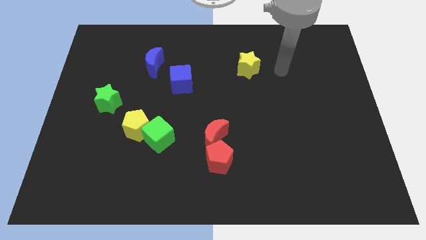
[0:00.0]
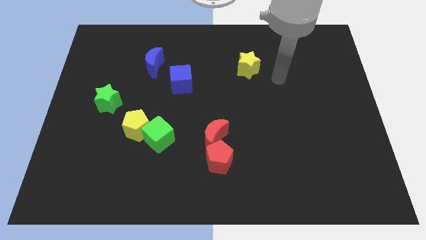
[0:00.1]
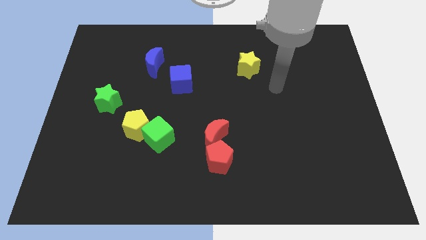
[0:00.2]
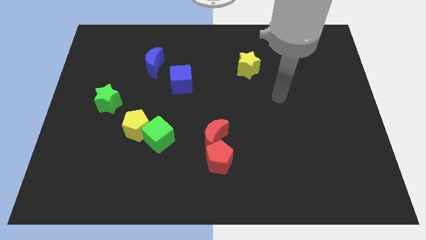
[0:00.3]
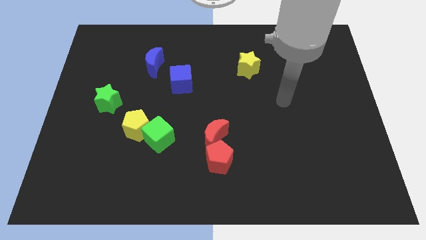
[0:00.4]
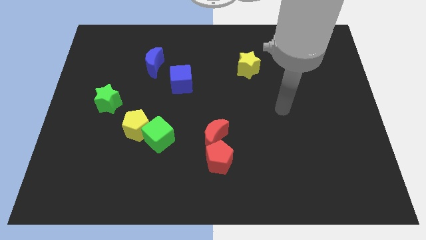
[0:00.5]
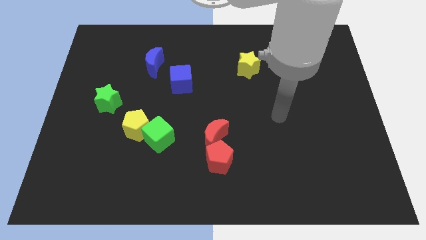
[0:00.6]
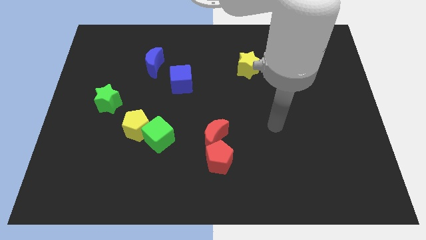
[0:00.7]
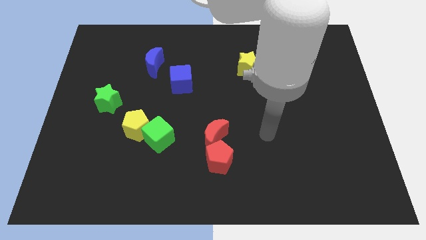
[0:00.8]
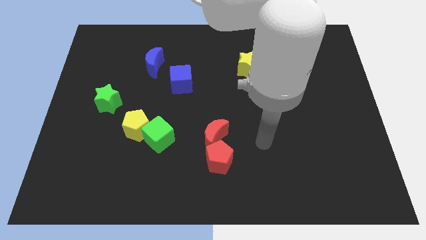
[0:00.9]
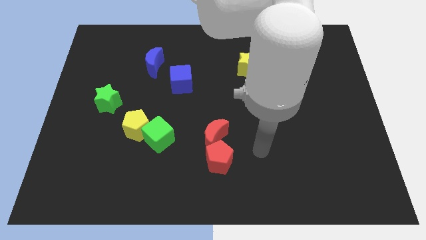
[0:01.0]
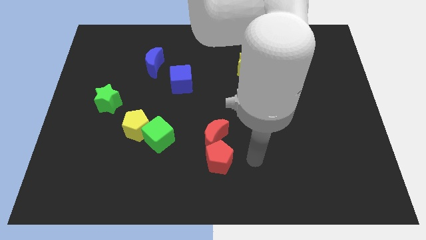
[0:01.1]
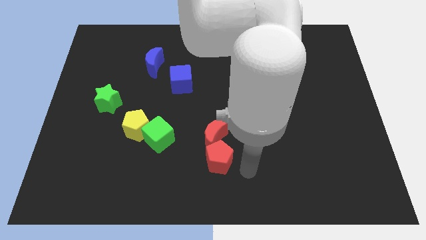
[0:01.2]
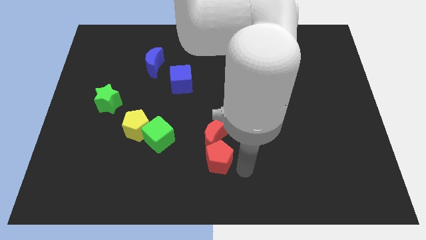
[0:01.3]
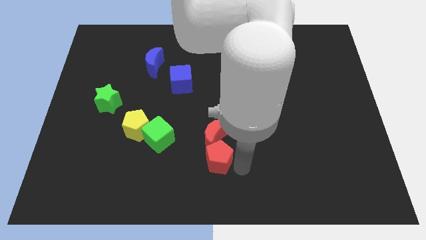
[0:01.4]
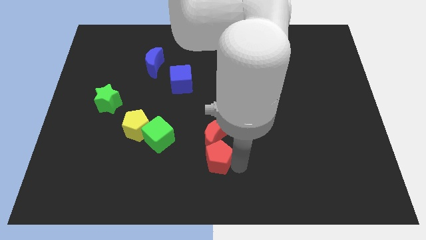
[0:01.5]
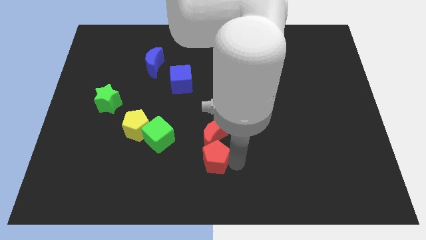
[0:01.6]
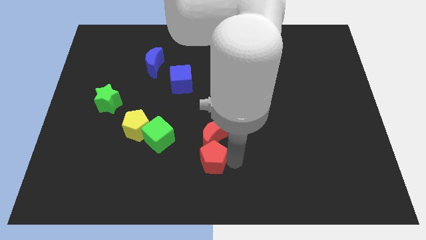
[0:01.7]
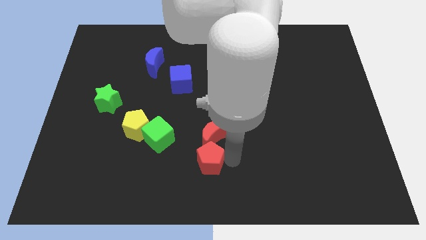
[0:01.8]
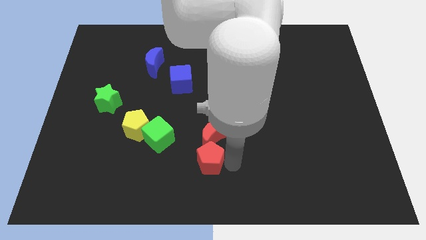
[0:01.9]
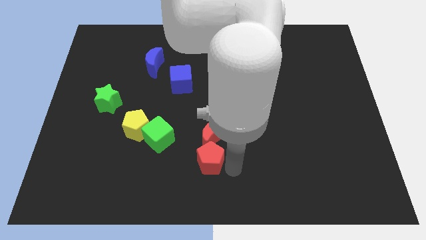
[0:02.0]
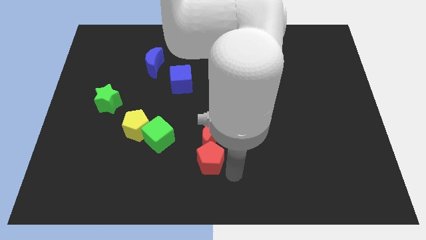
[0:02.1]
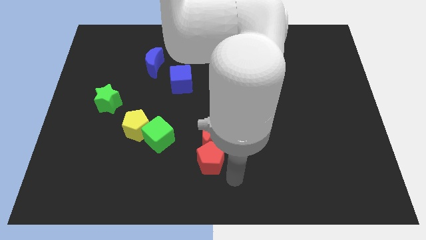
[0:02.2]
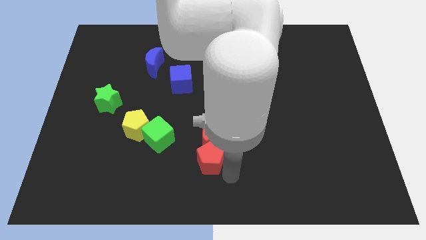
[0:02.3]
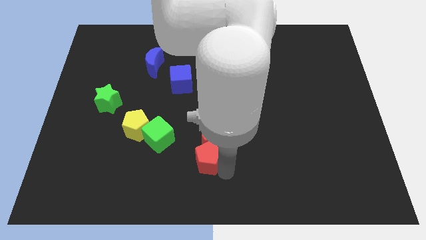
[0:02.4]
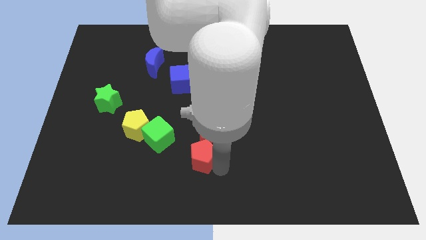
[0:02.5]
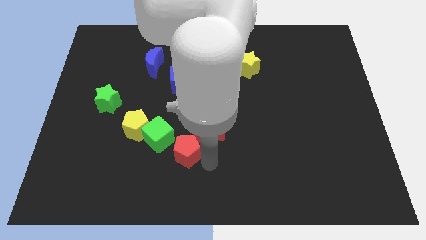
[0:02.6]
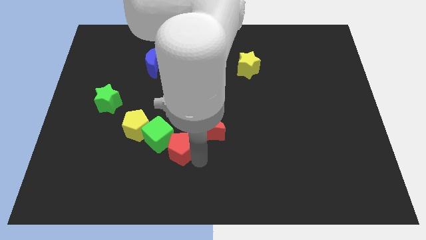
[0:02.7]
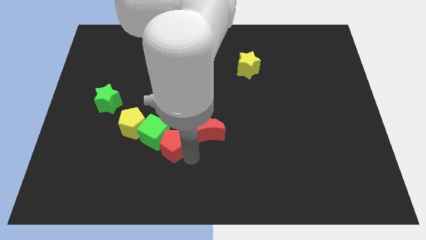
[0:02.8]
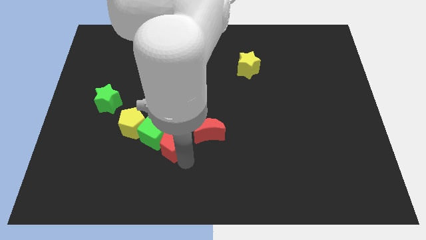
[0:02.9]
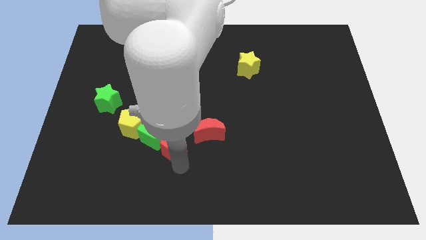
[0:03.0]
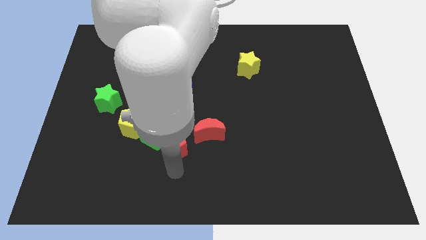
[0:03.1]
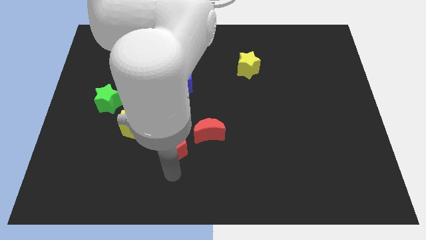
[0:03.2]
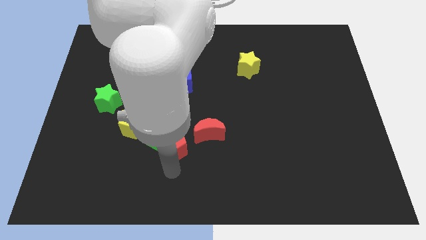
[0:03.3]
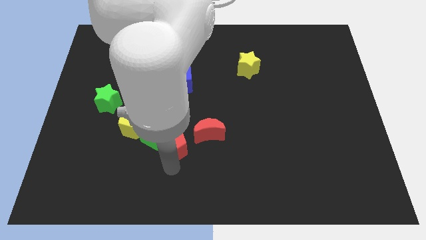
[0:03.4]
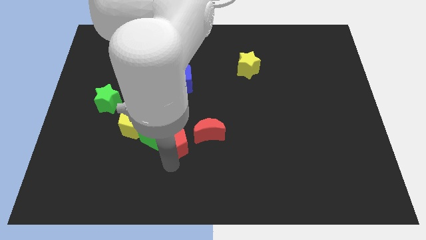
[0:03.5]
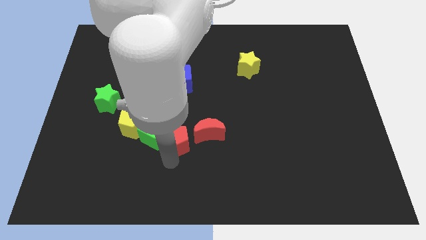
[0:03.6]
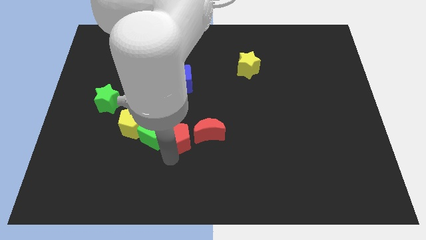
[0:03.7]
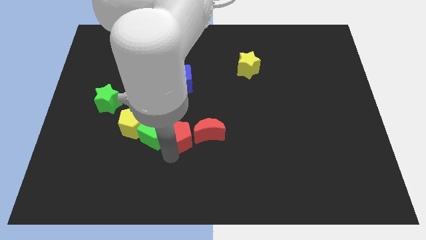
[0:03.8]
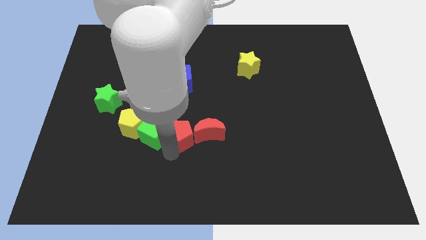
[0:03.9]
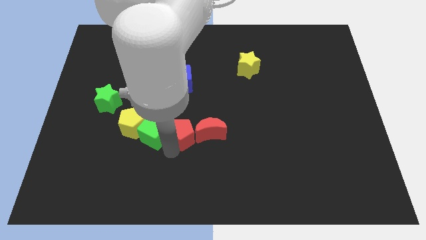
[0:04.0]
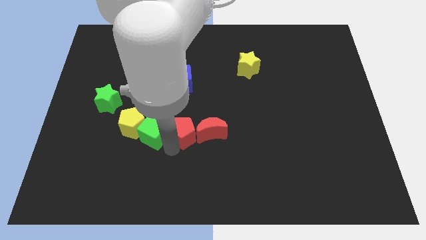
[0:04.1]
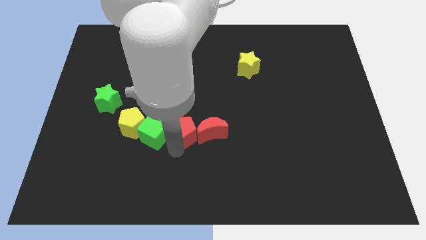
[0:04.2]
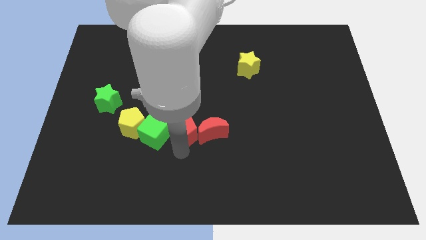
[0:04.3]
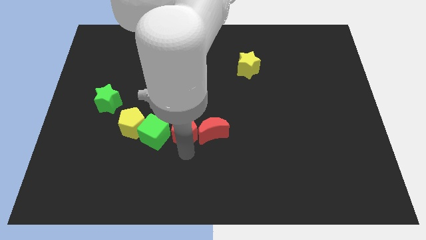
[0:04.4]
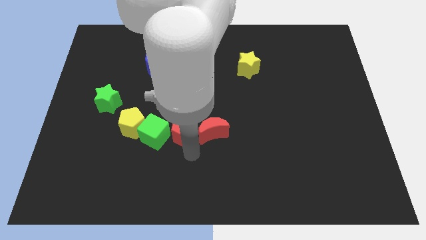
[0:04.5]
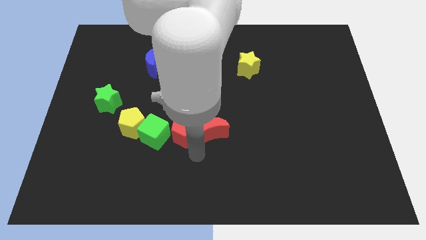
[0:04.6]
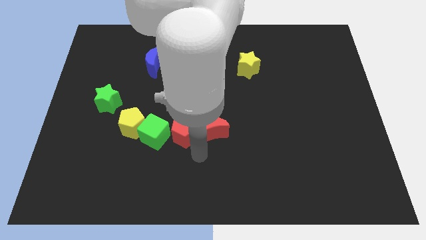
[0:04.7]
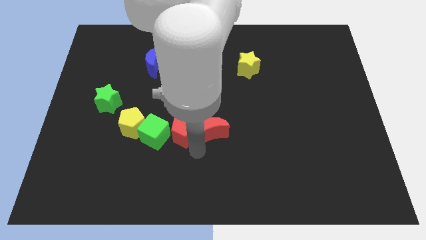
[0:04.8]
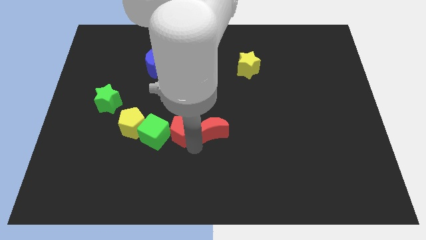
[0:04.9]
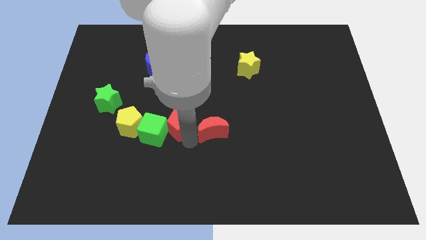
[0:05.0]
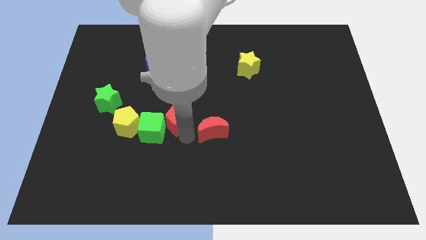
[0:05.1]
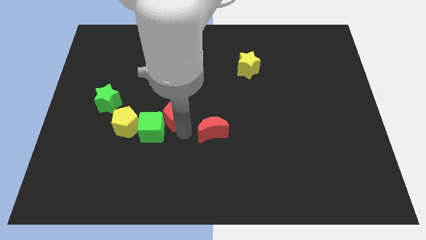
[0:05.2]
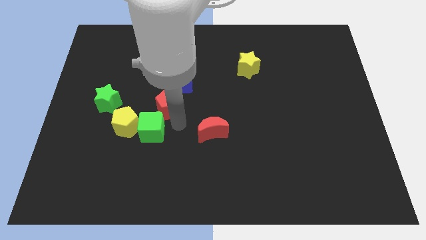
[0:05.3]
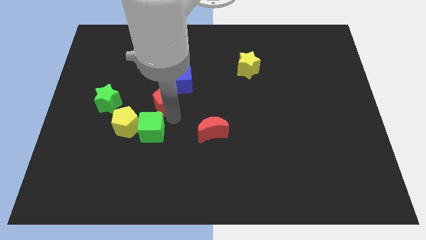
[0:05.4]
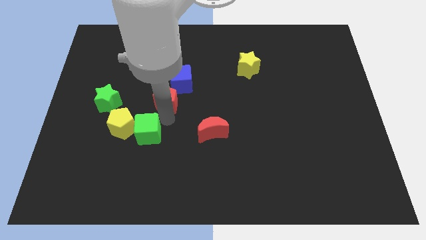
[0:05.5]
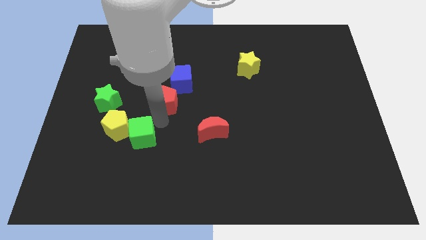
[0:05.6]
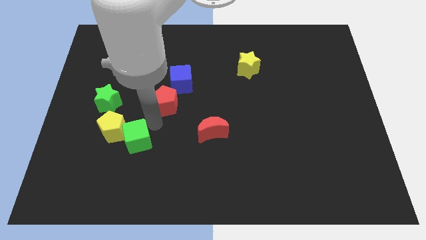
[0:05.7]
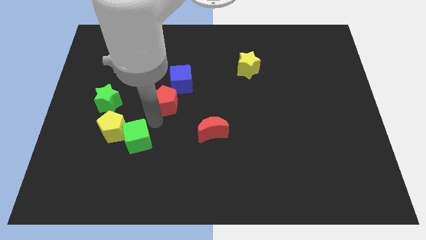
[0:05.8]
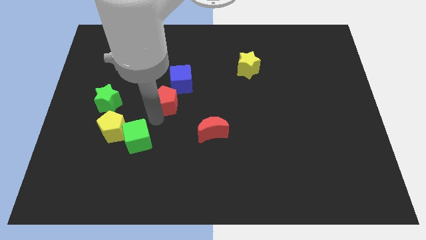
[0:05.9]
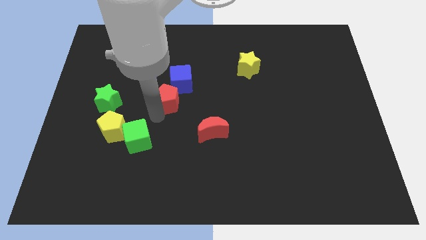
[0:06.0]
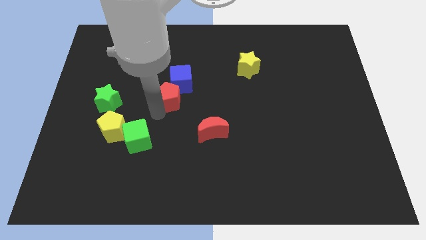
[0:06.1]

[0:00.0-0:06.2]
move the red pentagon towards the blue cube
